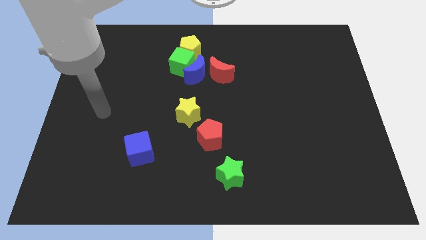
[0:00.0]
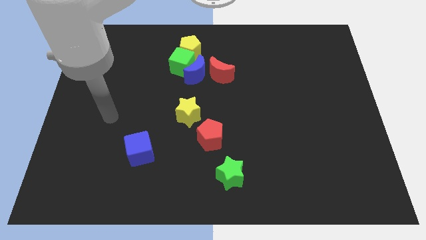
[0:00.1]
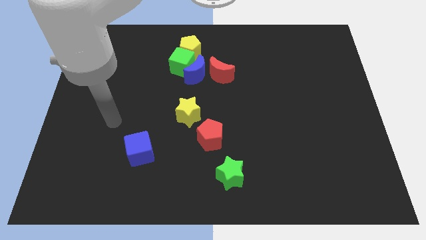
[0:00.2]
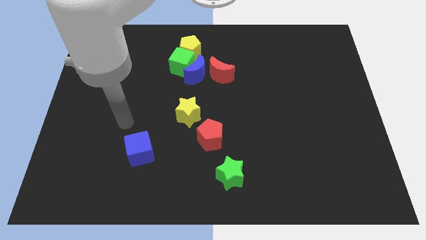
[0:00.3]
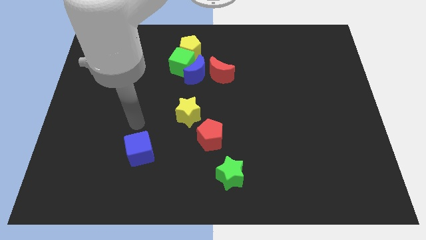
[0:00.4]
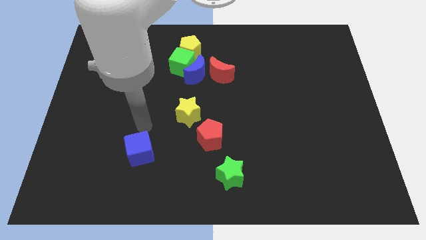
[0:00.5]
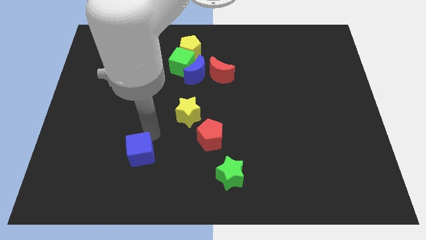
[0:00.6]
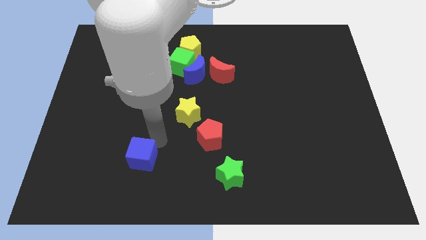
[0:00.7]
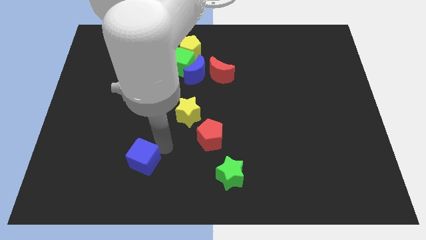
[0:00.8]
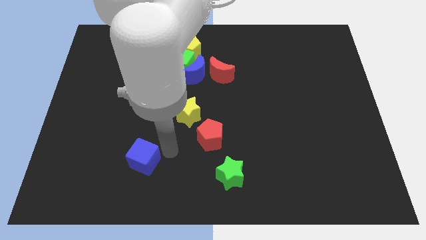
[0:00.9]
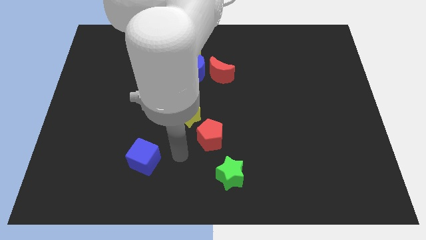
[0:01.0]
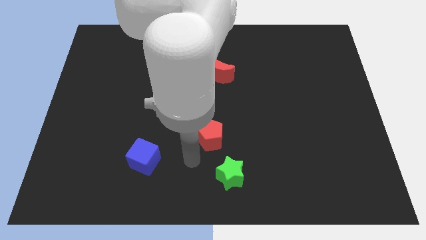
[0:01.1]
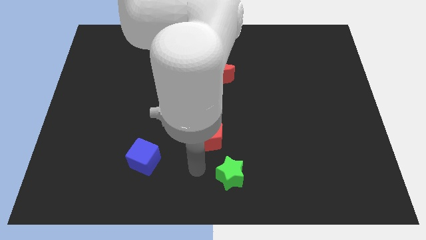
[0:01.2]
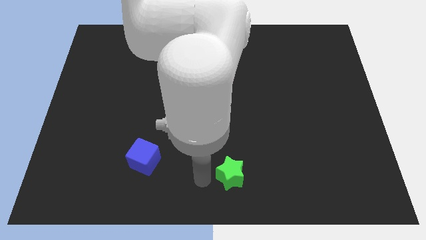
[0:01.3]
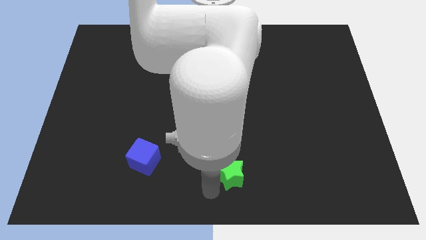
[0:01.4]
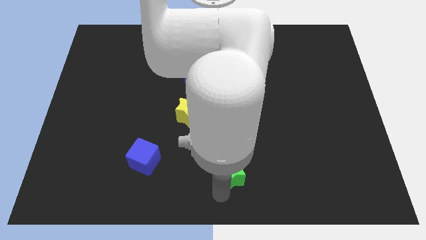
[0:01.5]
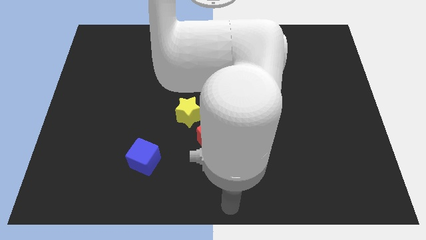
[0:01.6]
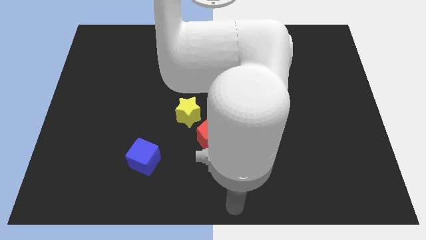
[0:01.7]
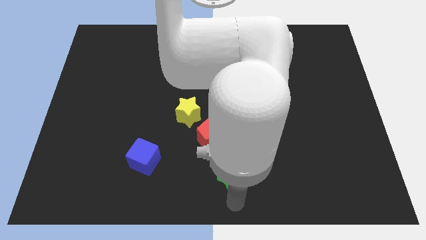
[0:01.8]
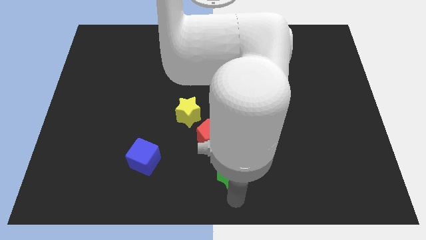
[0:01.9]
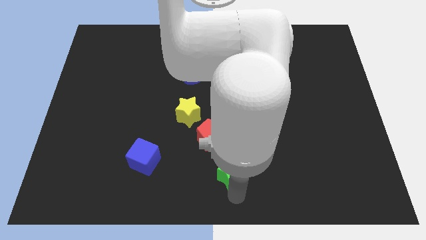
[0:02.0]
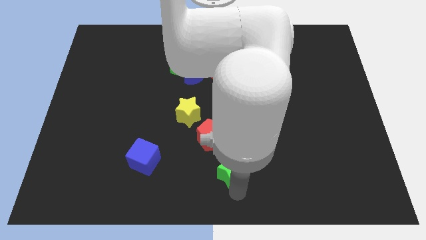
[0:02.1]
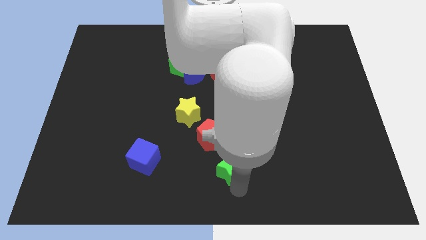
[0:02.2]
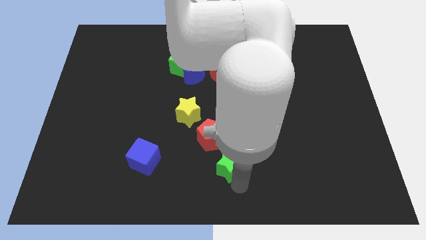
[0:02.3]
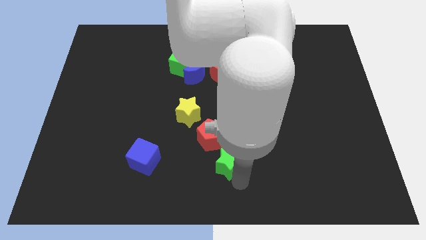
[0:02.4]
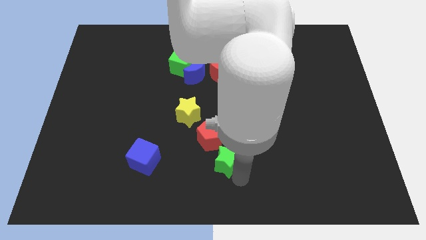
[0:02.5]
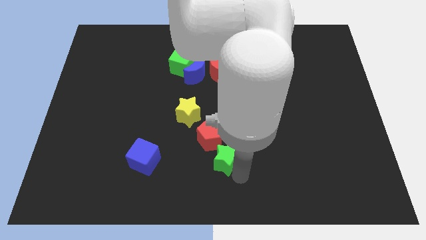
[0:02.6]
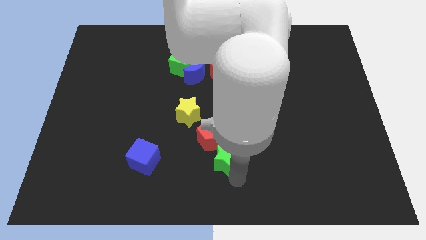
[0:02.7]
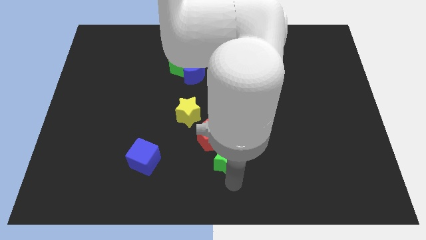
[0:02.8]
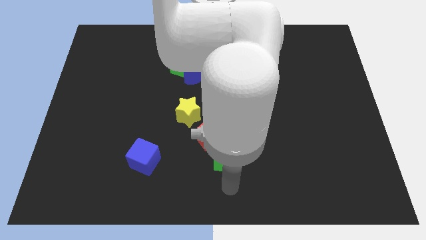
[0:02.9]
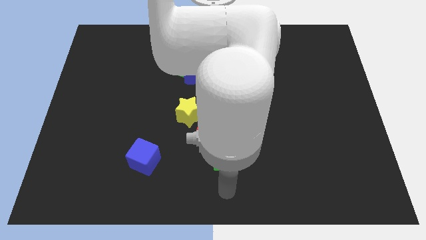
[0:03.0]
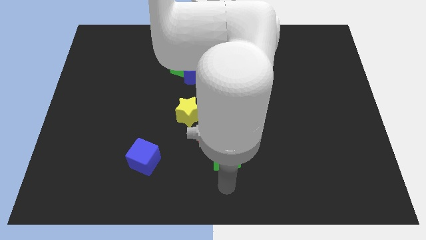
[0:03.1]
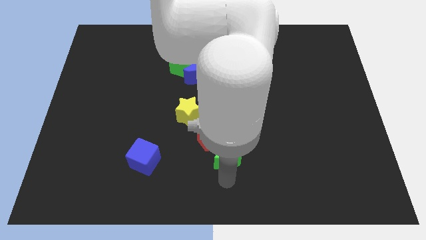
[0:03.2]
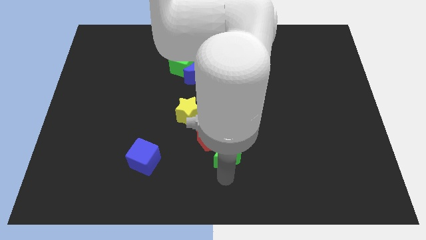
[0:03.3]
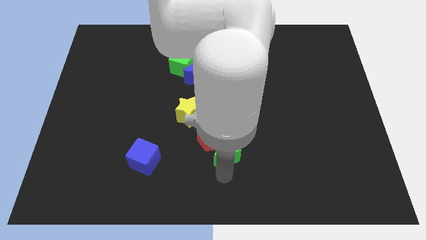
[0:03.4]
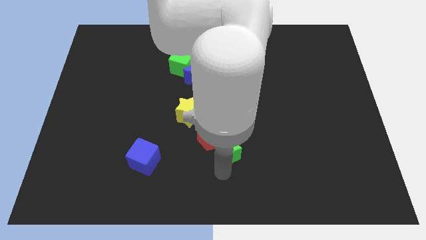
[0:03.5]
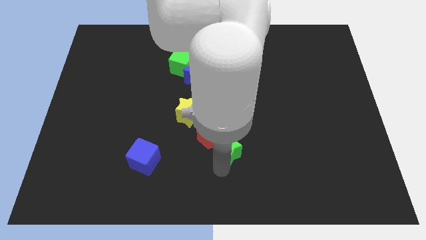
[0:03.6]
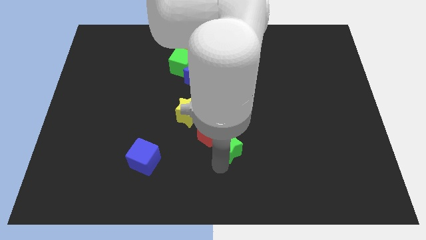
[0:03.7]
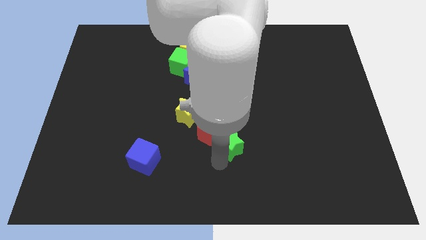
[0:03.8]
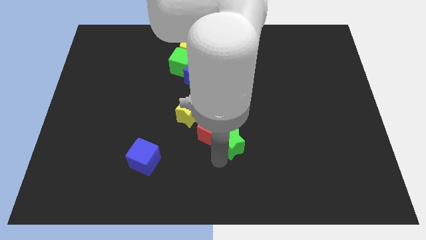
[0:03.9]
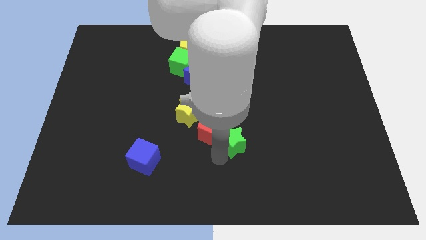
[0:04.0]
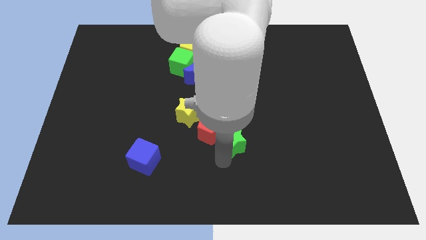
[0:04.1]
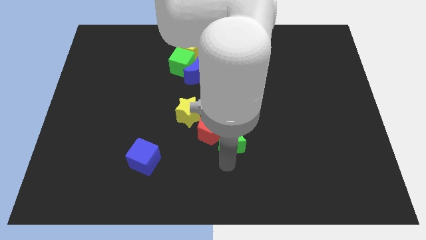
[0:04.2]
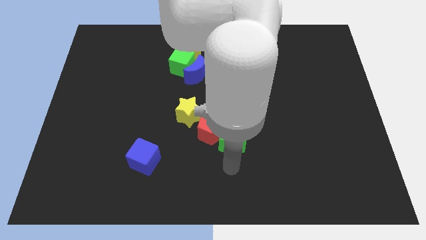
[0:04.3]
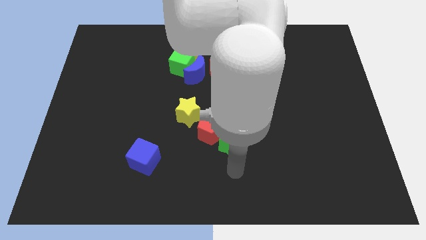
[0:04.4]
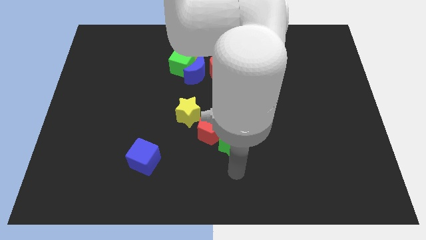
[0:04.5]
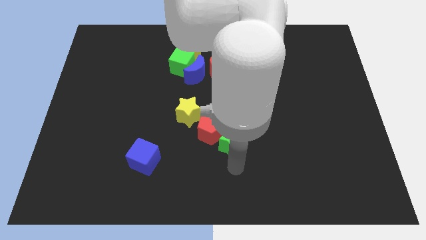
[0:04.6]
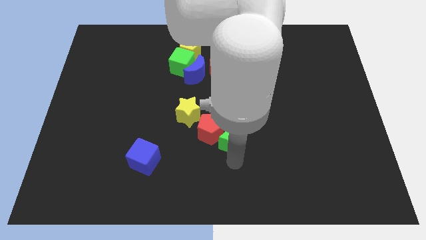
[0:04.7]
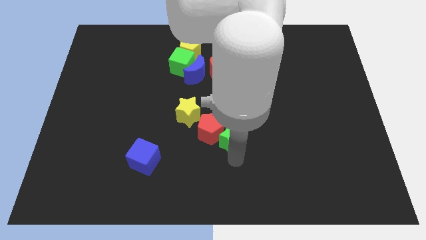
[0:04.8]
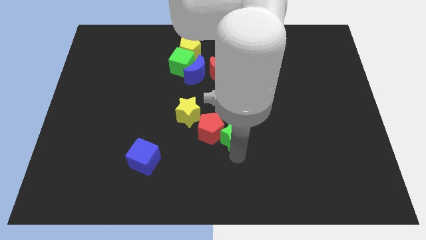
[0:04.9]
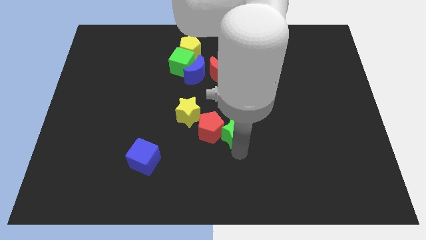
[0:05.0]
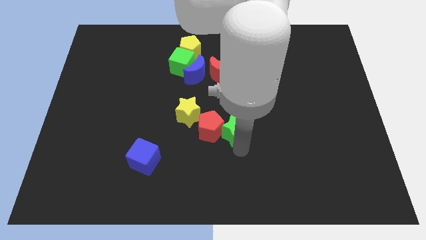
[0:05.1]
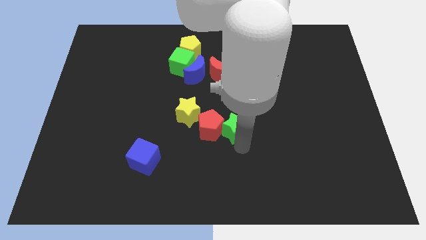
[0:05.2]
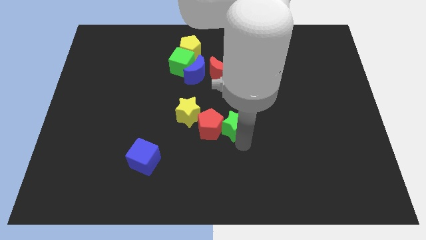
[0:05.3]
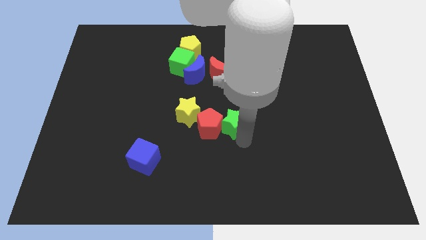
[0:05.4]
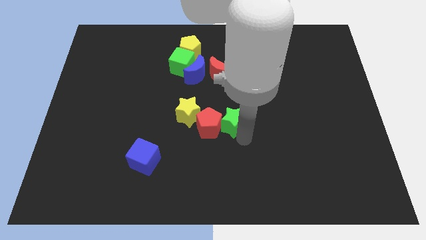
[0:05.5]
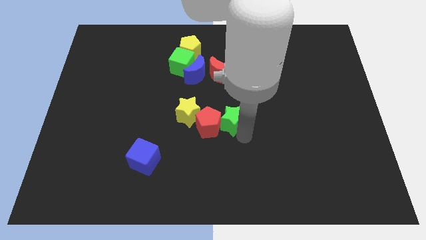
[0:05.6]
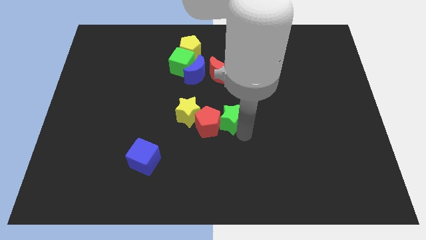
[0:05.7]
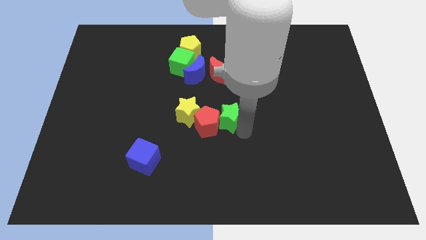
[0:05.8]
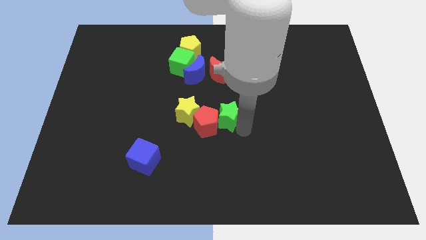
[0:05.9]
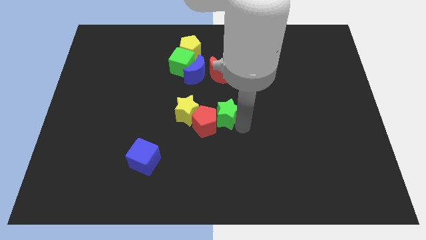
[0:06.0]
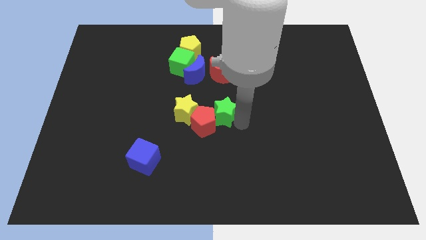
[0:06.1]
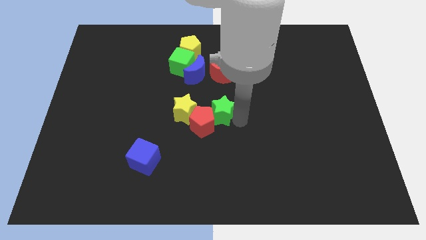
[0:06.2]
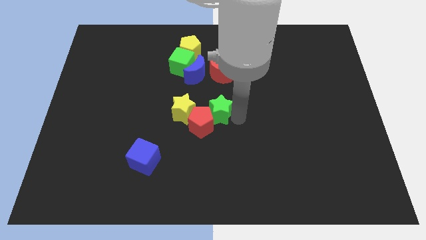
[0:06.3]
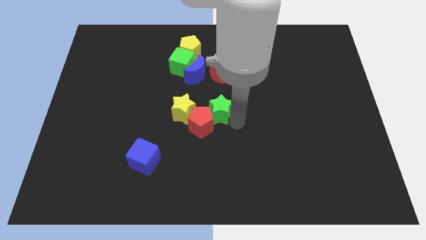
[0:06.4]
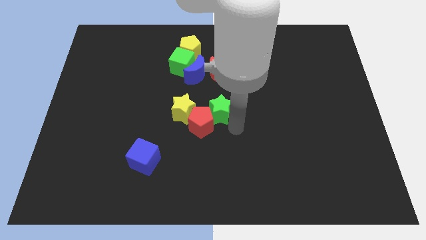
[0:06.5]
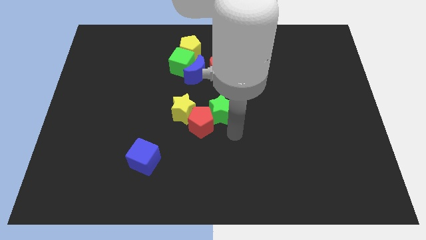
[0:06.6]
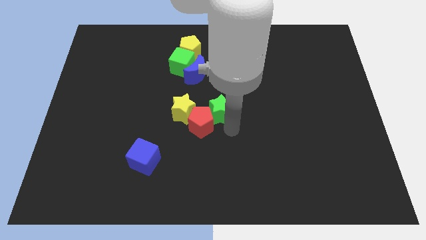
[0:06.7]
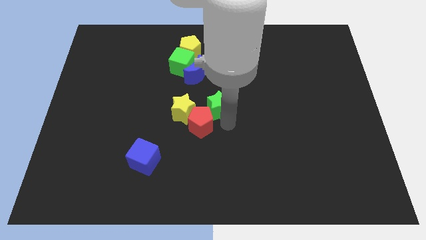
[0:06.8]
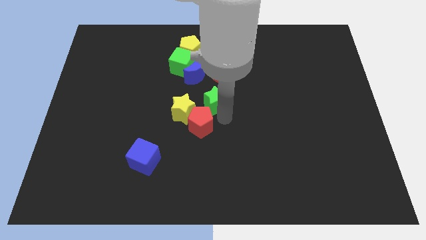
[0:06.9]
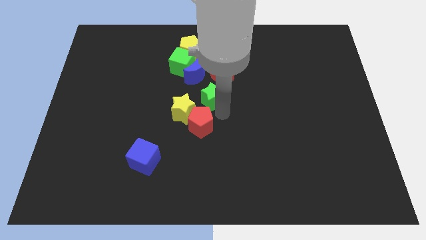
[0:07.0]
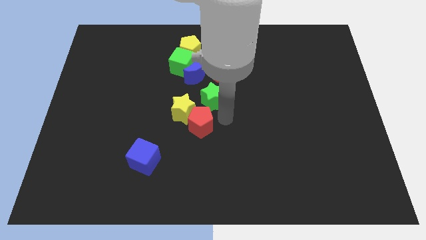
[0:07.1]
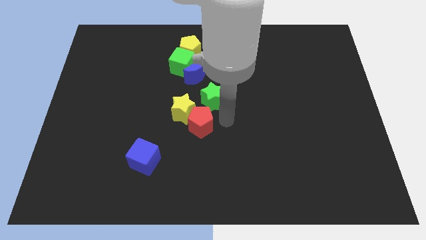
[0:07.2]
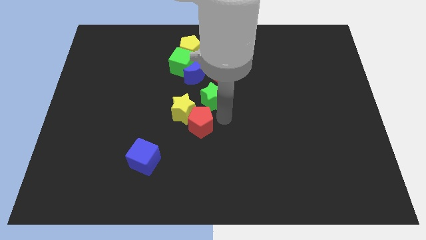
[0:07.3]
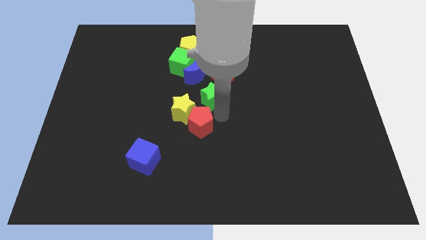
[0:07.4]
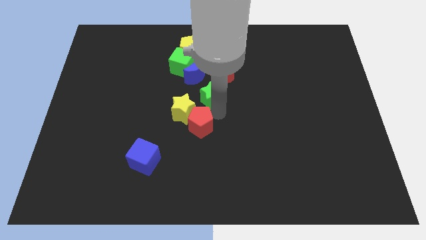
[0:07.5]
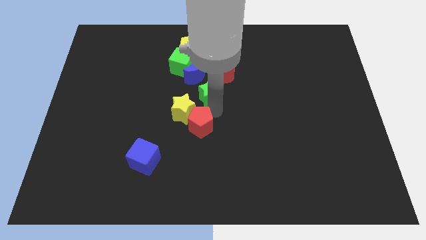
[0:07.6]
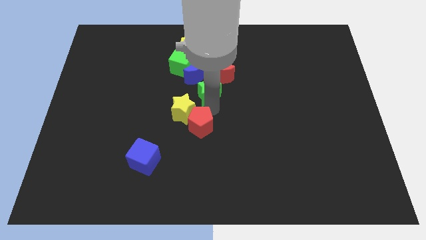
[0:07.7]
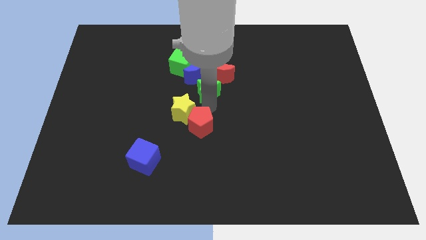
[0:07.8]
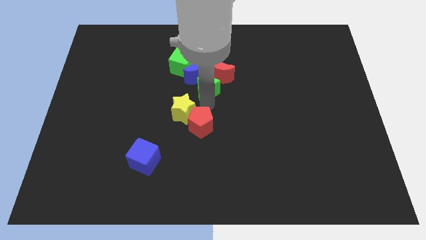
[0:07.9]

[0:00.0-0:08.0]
slide the green star towards the blue moon
